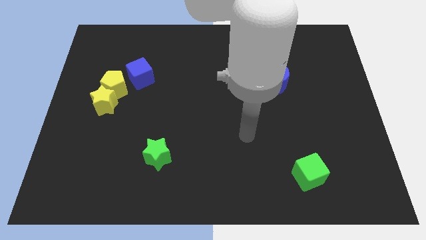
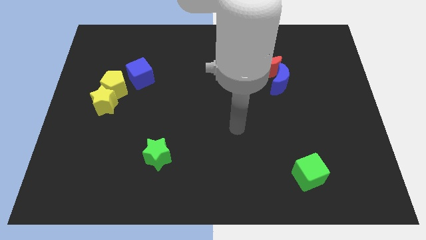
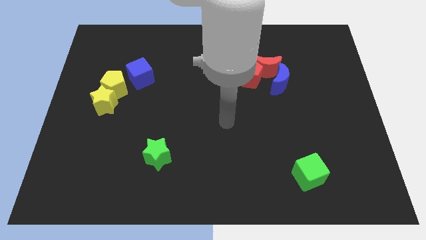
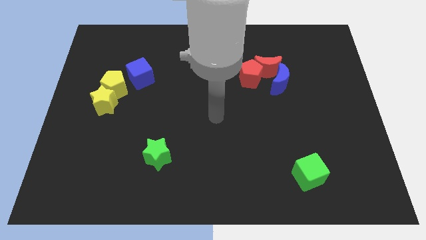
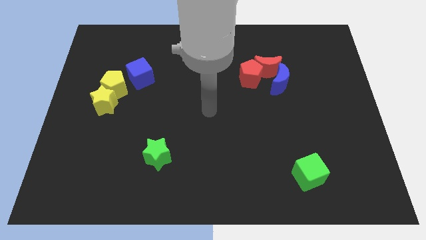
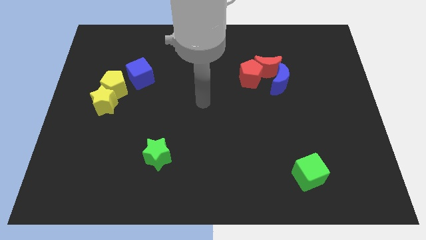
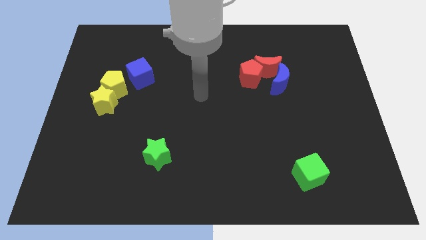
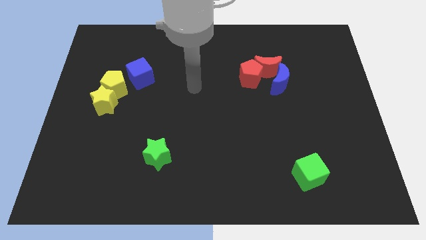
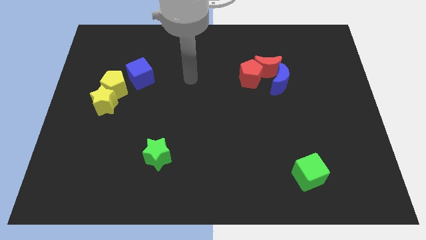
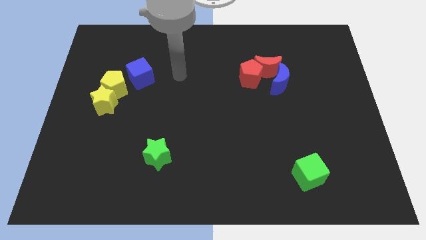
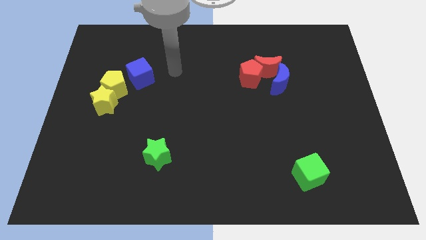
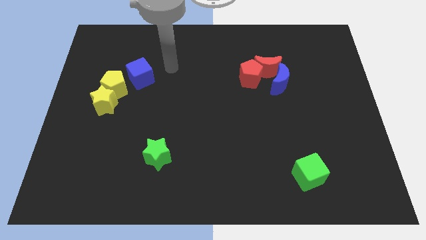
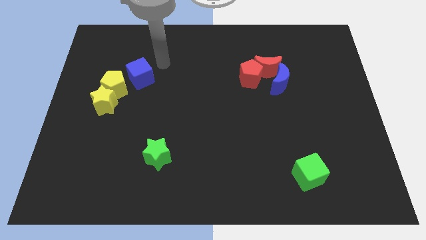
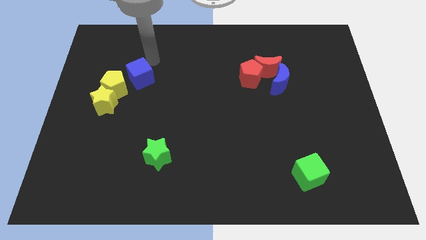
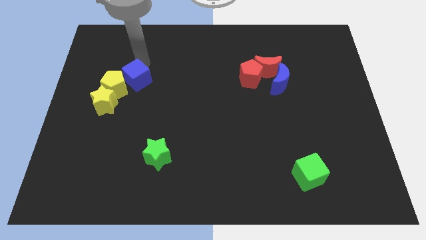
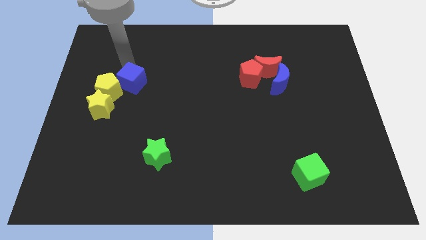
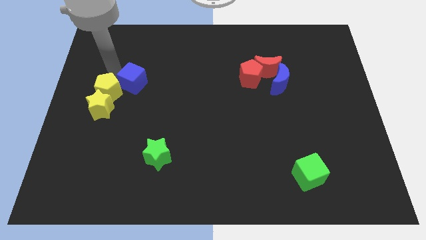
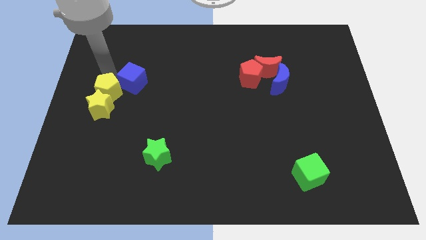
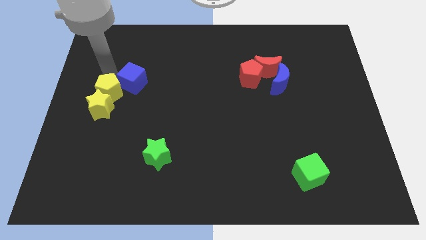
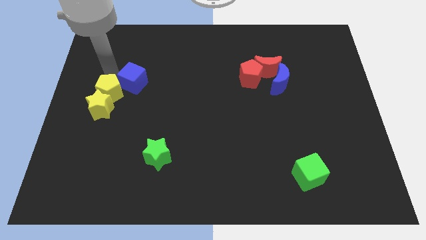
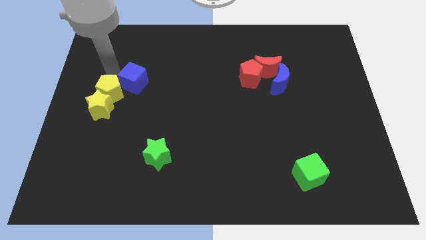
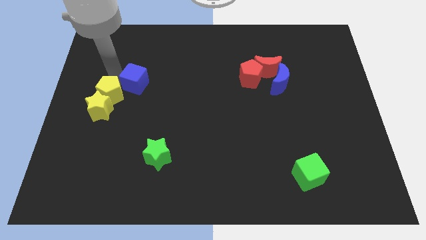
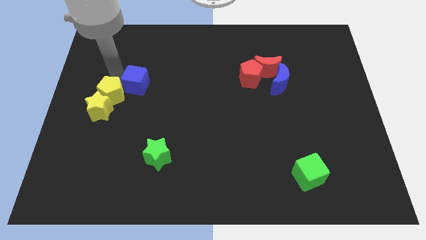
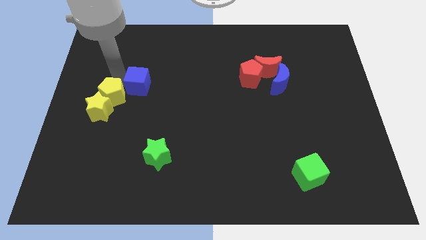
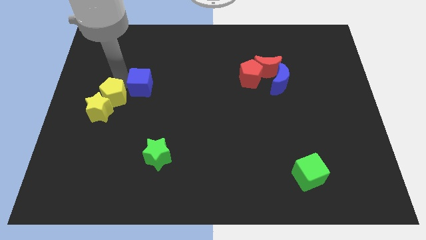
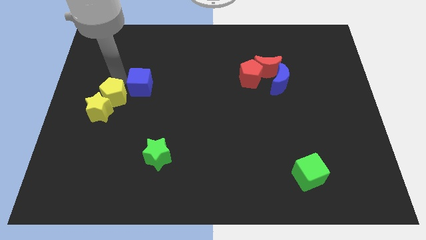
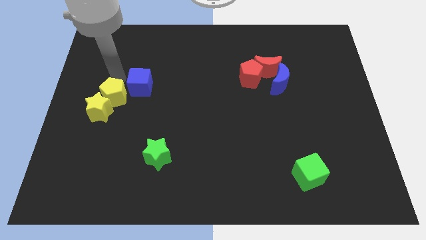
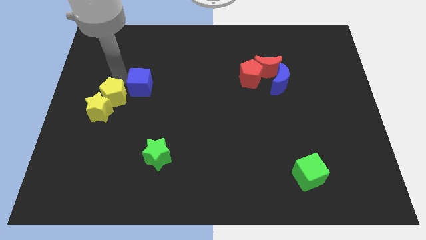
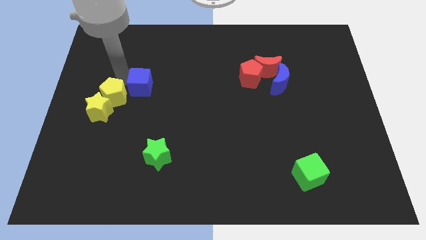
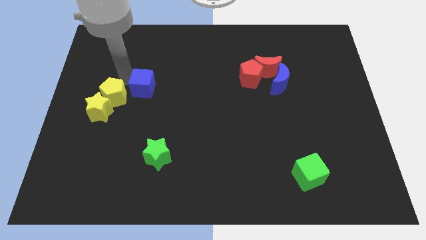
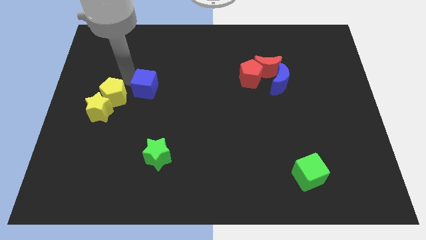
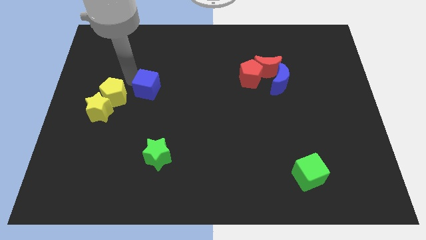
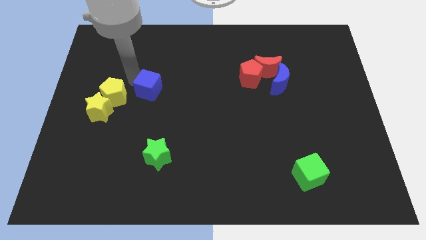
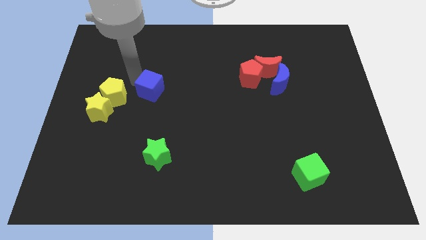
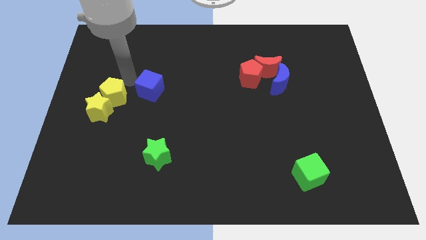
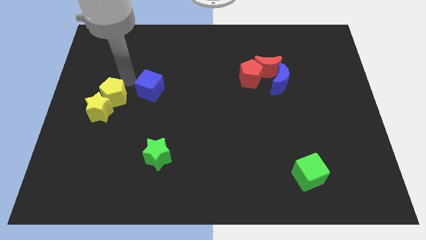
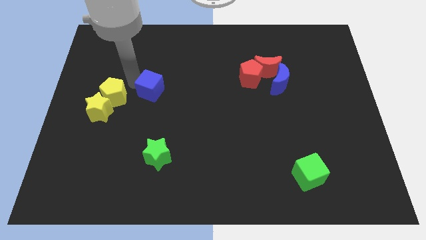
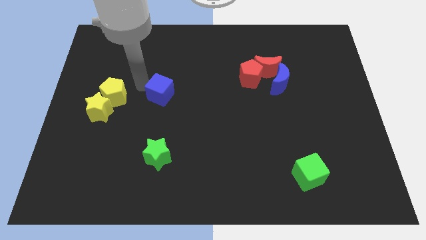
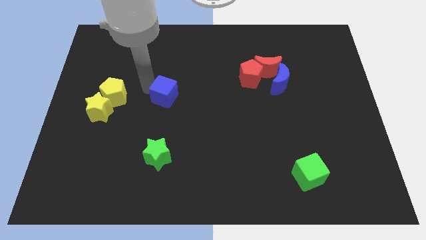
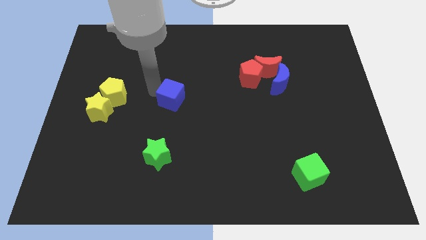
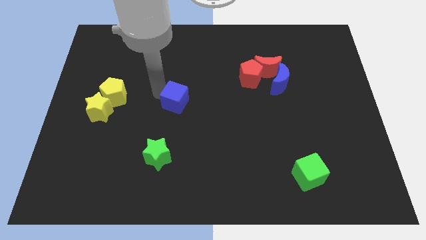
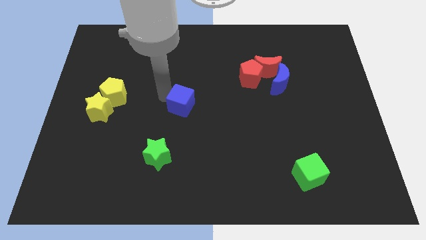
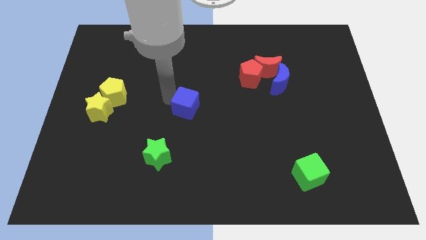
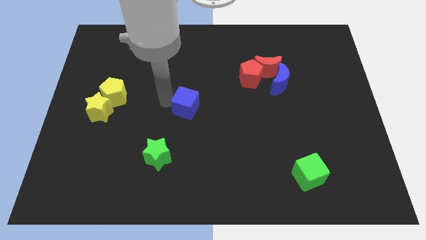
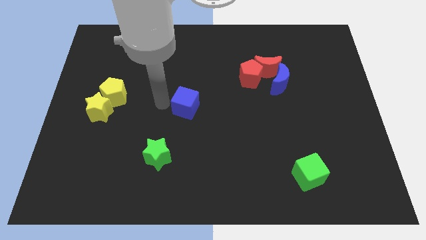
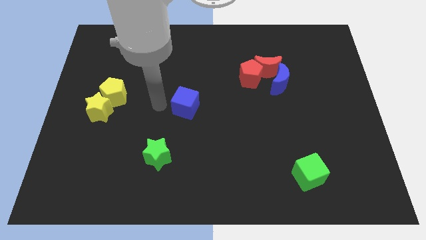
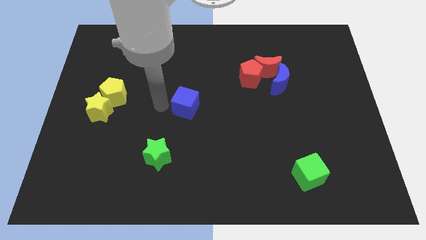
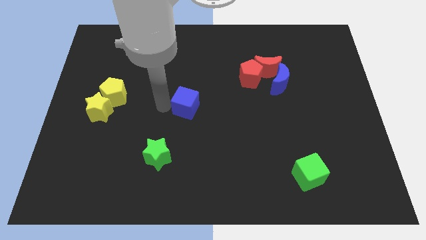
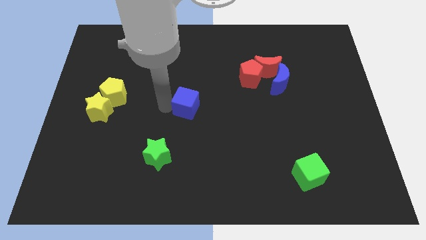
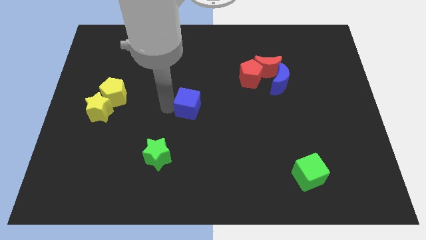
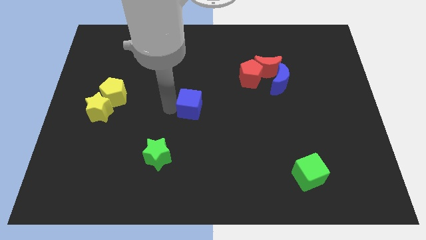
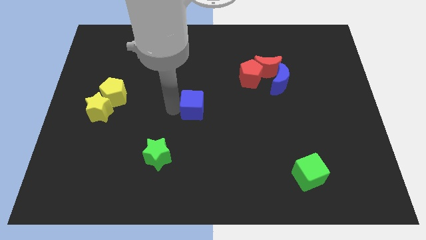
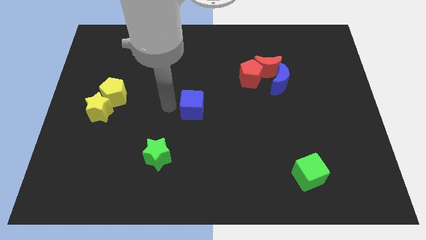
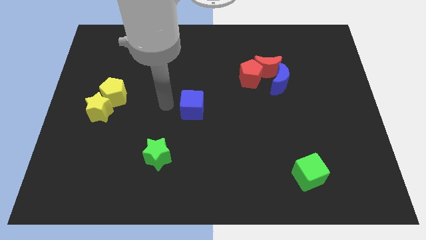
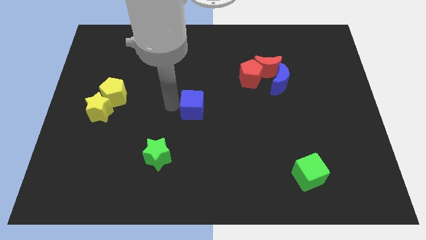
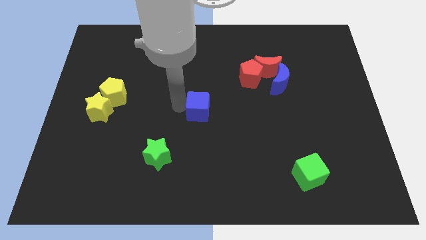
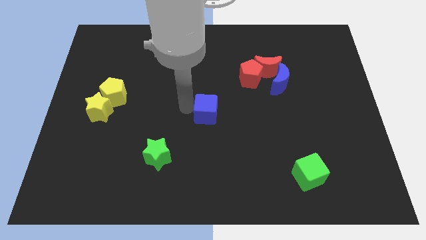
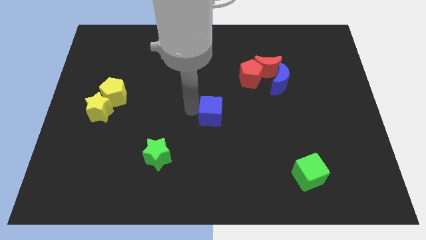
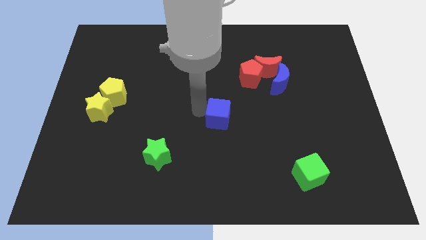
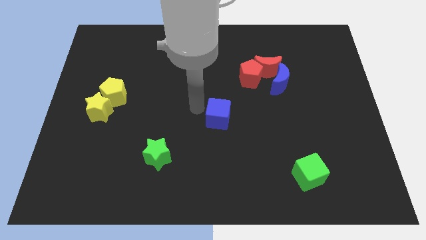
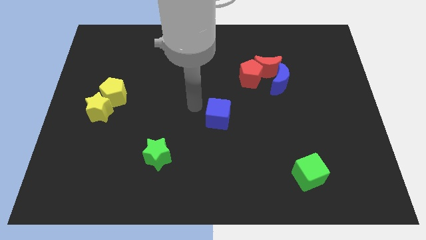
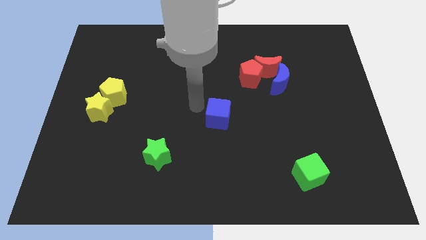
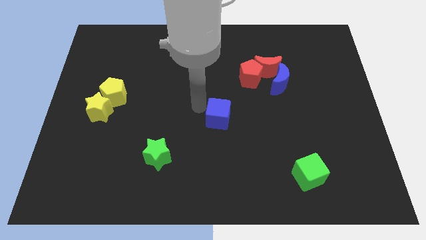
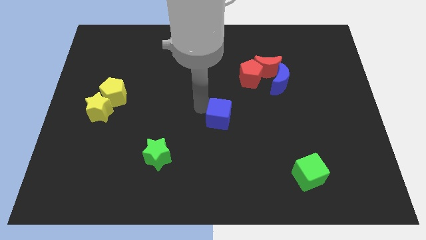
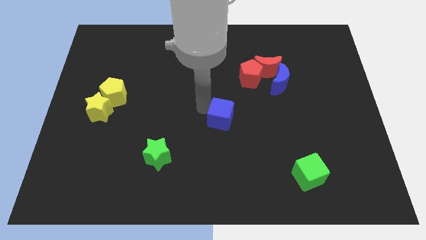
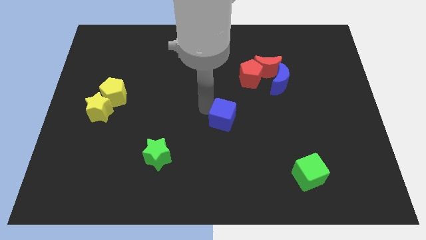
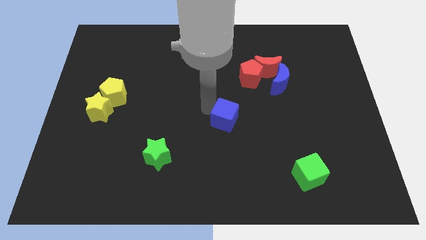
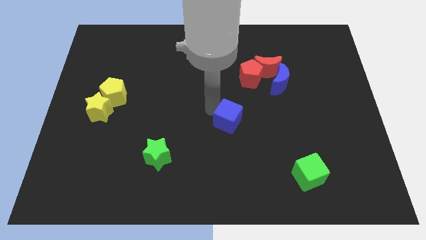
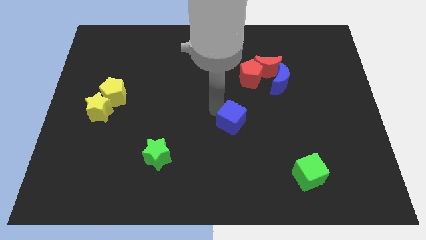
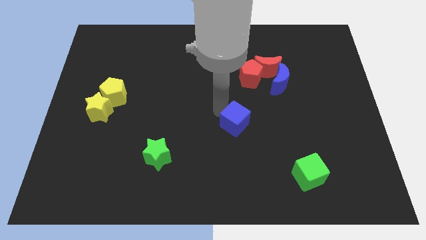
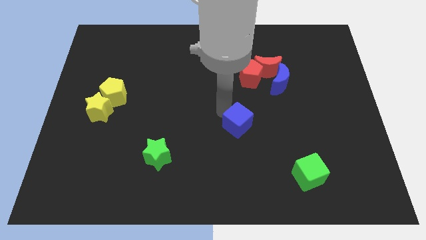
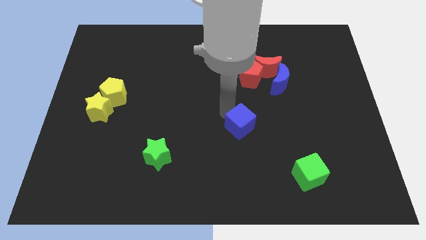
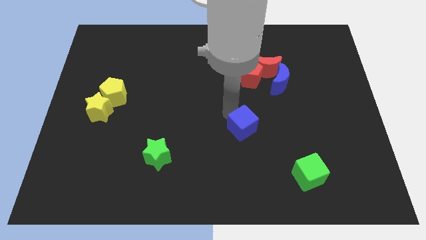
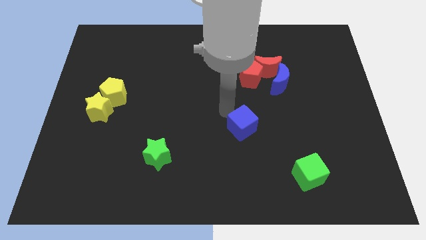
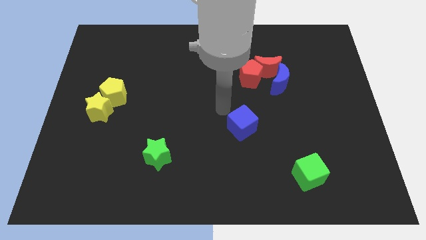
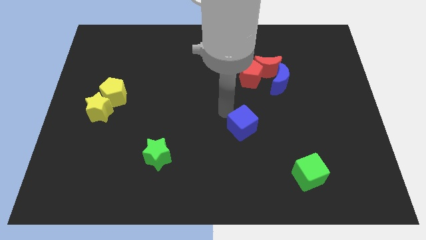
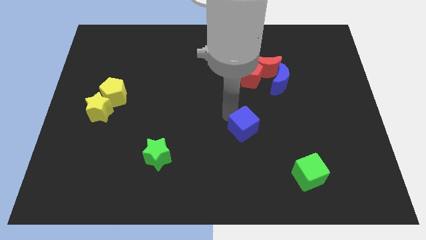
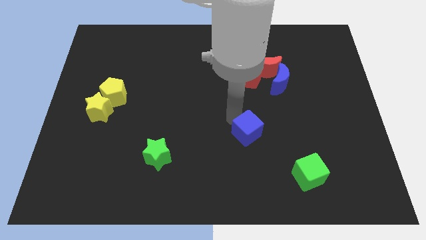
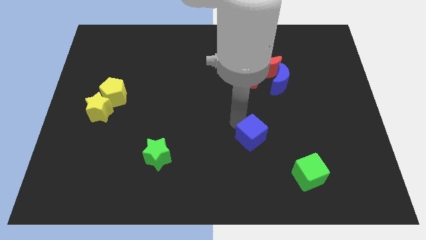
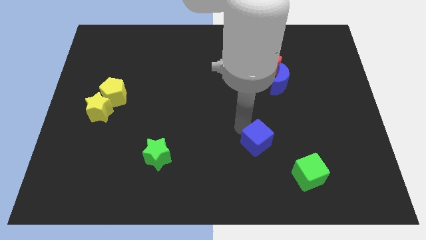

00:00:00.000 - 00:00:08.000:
move the blue cube to the top left side of the green cube

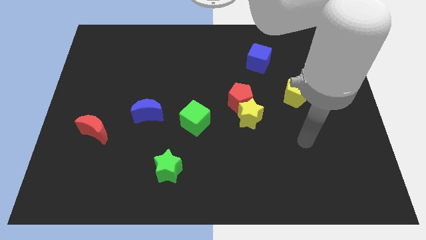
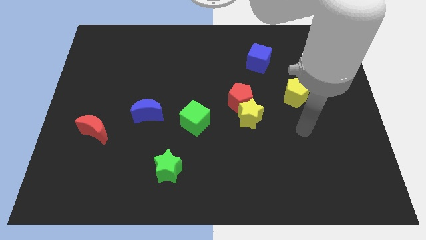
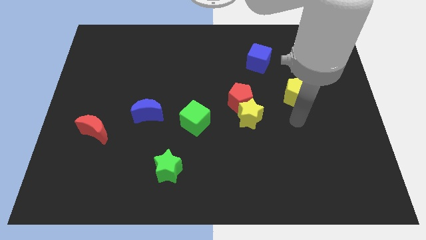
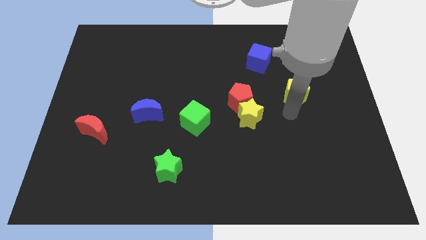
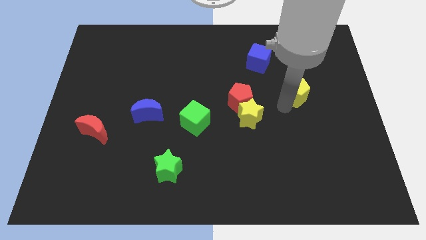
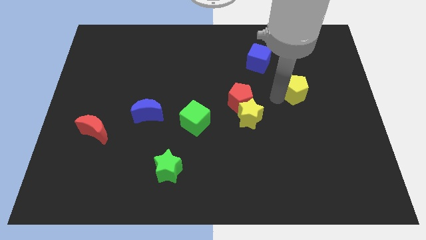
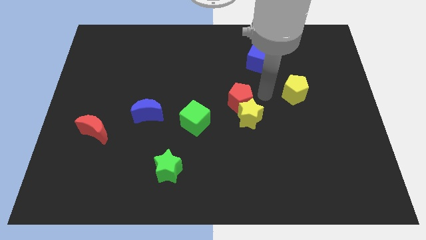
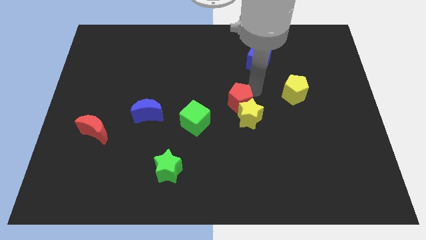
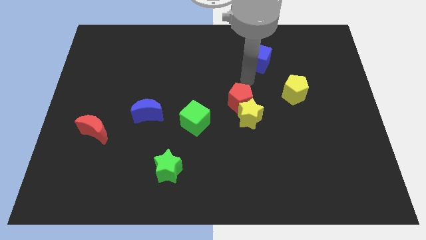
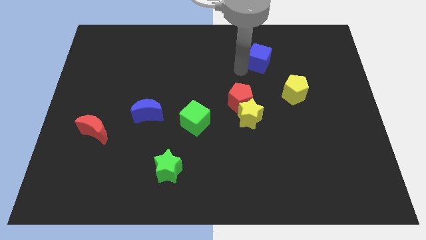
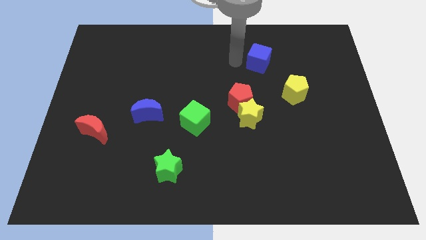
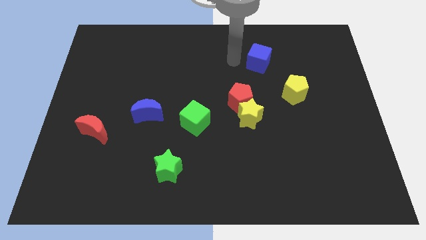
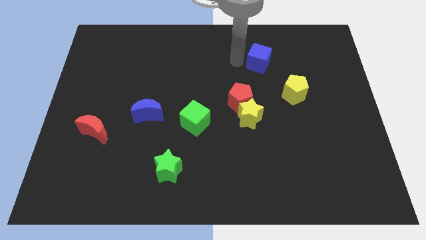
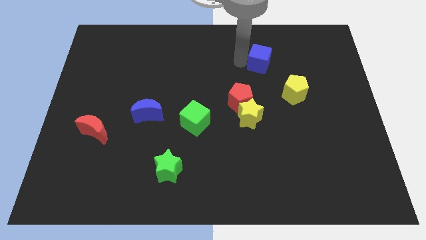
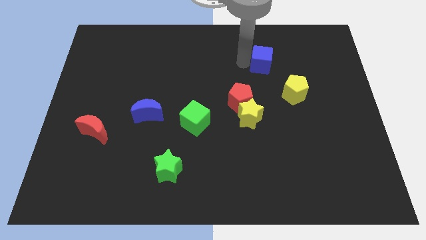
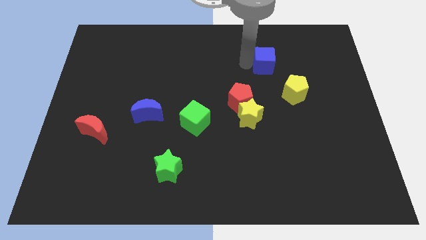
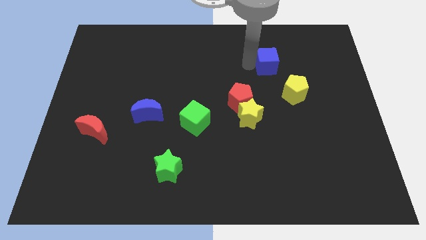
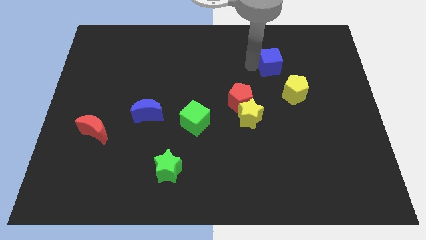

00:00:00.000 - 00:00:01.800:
slide the blue cube above the yellow pentagon
